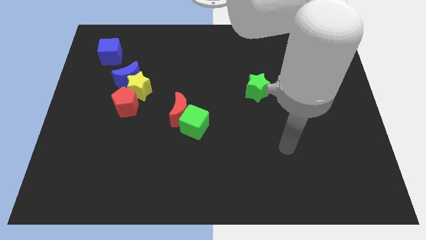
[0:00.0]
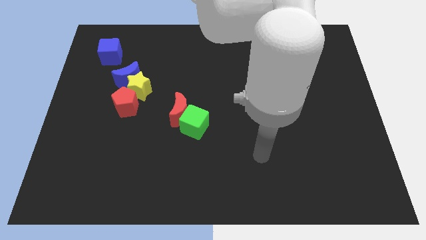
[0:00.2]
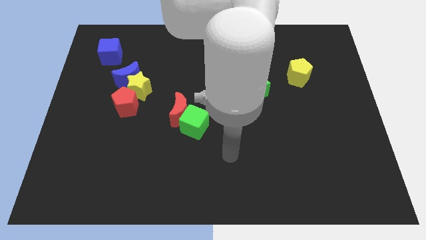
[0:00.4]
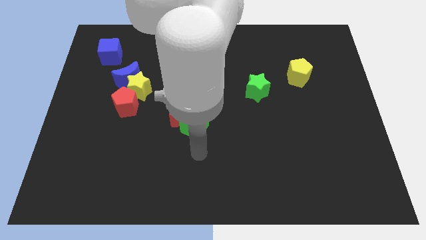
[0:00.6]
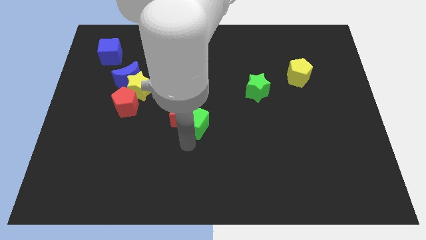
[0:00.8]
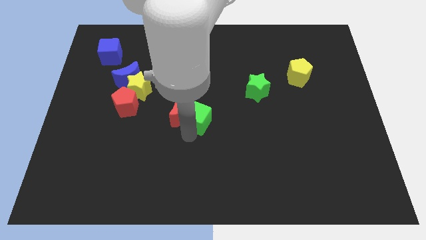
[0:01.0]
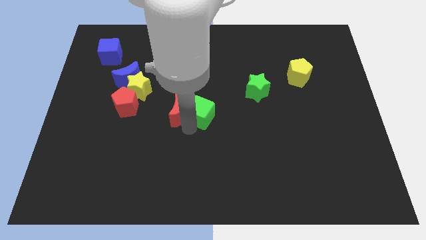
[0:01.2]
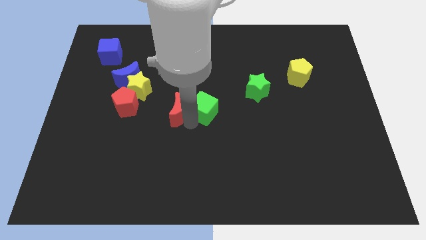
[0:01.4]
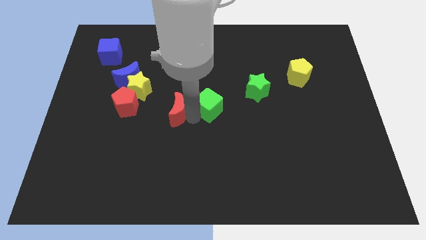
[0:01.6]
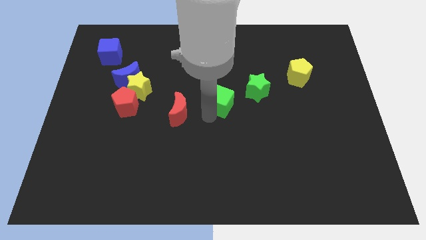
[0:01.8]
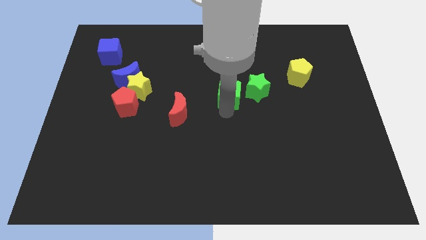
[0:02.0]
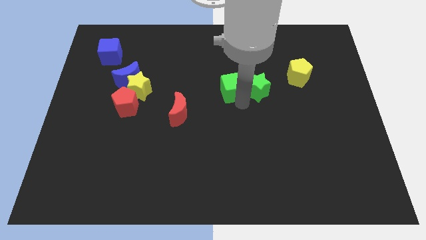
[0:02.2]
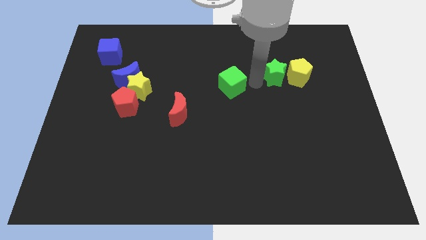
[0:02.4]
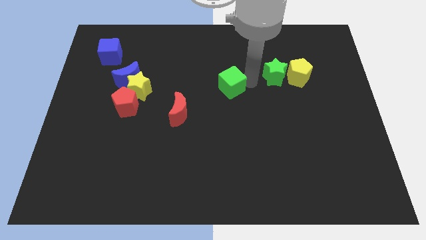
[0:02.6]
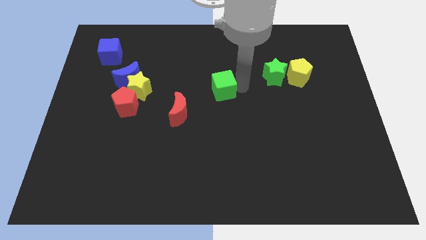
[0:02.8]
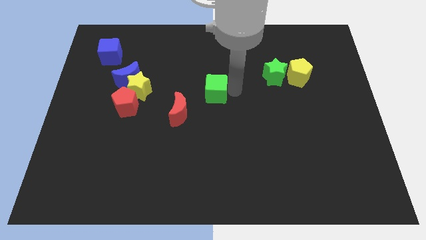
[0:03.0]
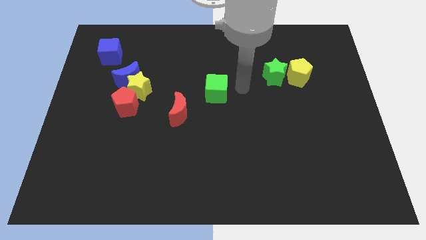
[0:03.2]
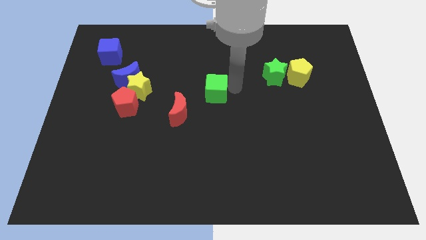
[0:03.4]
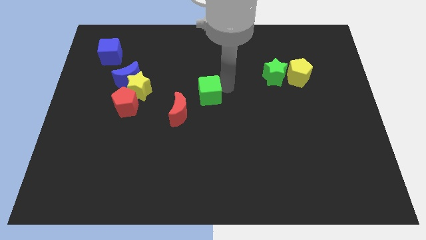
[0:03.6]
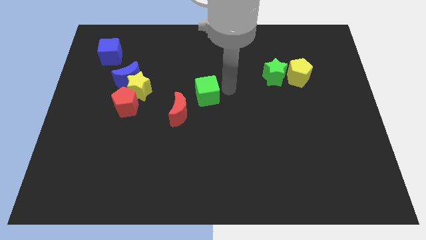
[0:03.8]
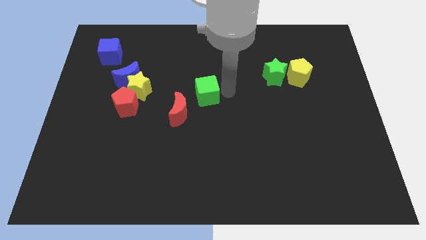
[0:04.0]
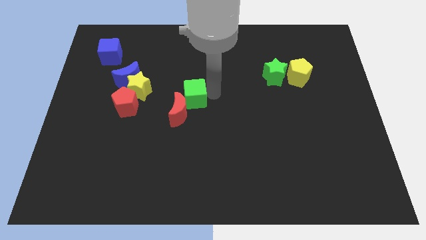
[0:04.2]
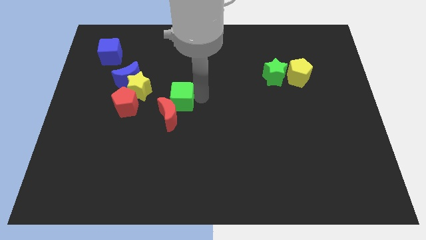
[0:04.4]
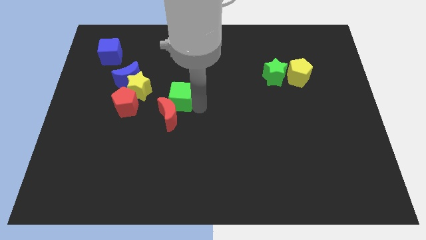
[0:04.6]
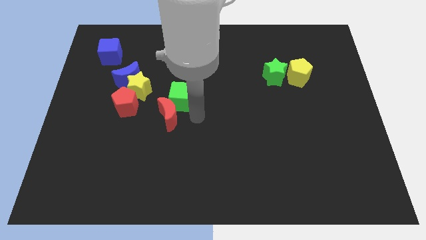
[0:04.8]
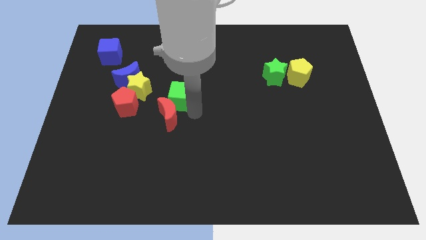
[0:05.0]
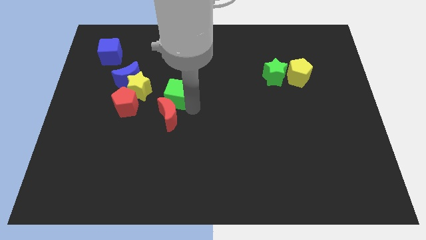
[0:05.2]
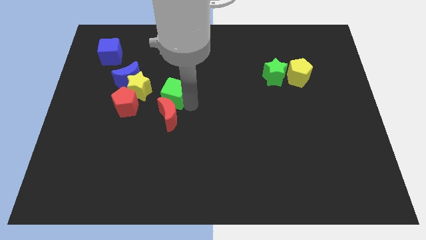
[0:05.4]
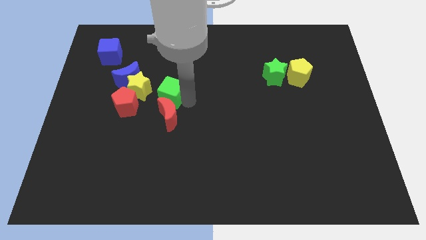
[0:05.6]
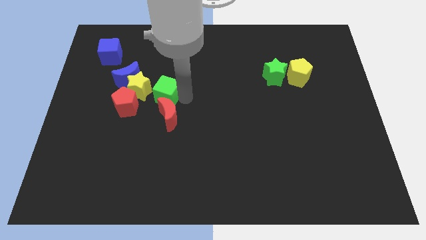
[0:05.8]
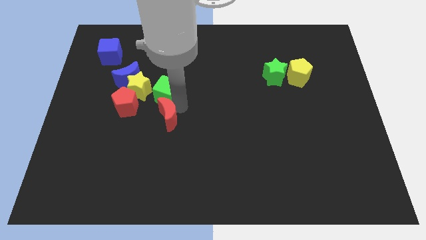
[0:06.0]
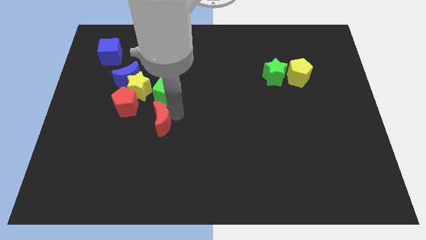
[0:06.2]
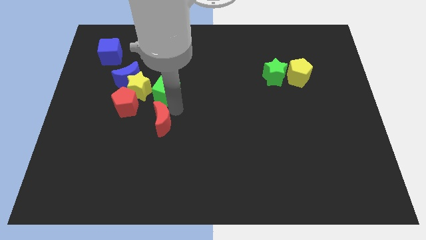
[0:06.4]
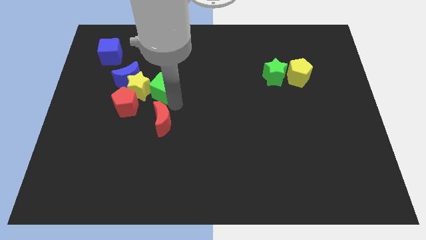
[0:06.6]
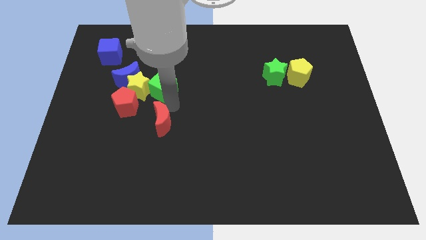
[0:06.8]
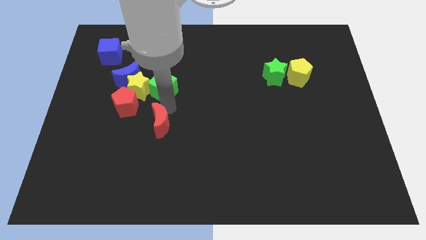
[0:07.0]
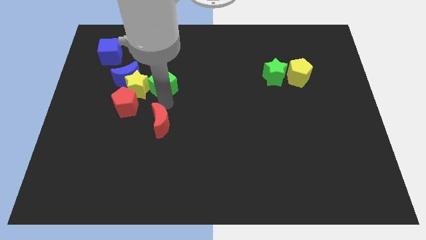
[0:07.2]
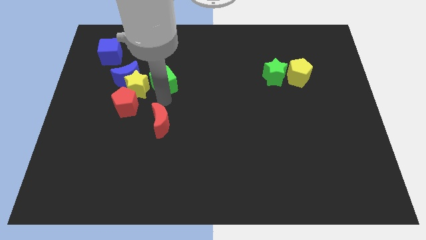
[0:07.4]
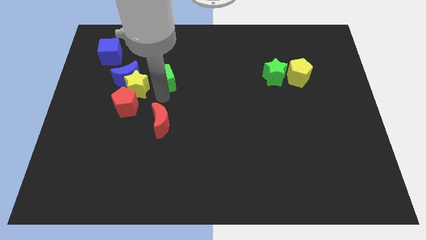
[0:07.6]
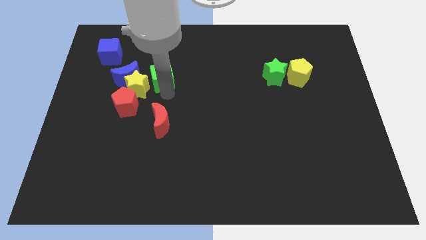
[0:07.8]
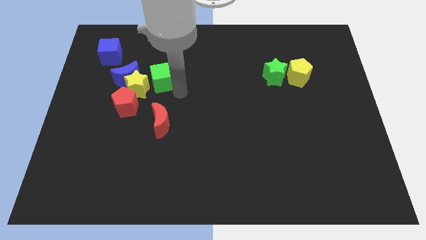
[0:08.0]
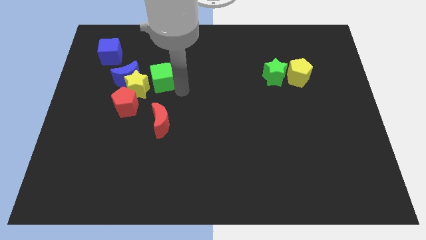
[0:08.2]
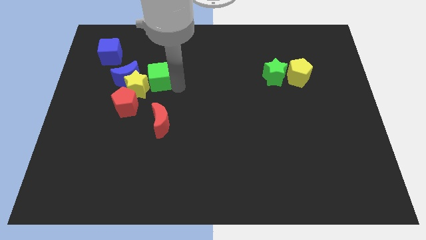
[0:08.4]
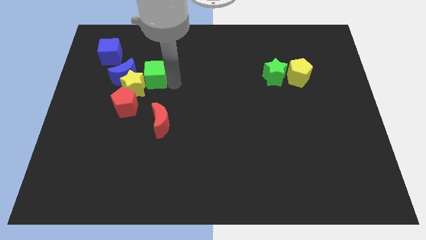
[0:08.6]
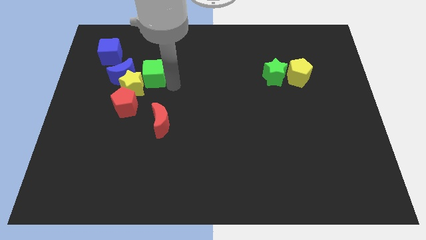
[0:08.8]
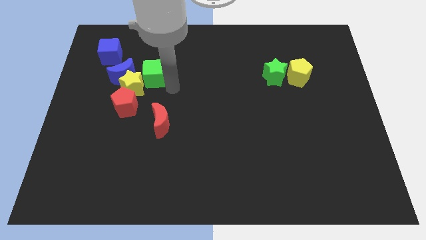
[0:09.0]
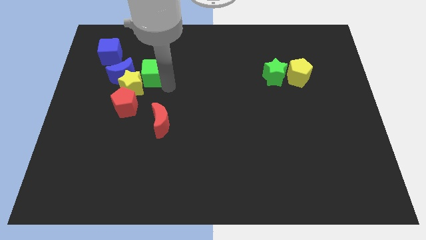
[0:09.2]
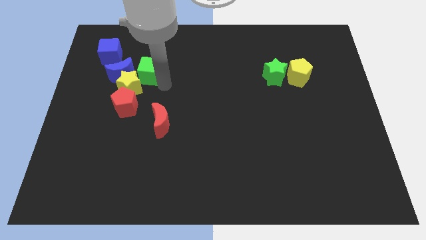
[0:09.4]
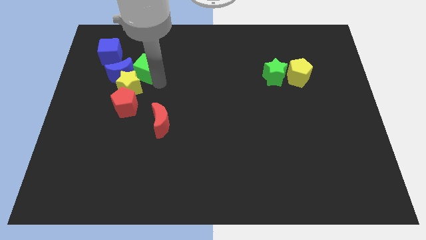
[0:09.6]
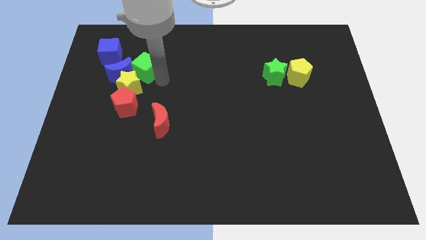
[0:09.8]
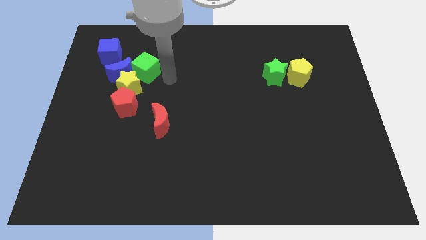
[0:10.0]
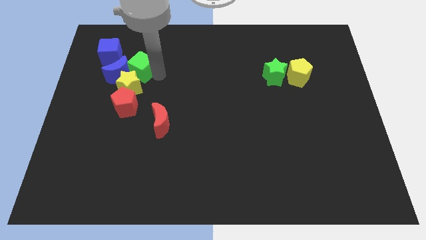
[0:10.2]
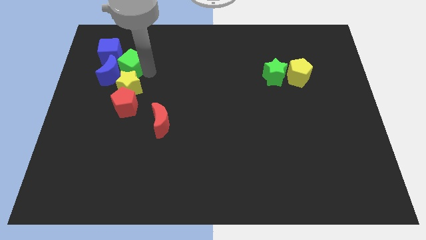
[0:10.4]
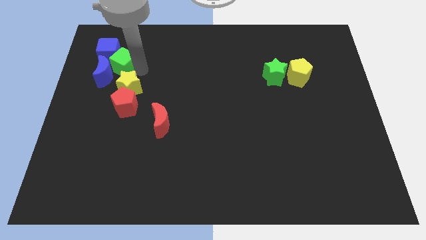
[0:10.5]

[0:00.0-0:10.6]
push the green cube close to the blue cube

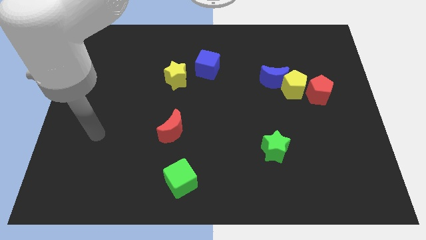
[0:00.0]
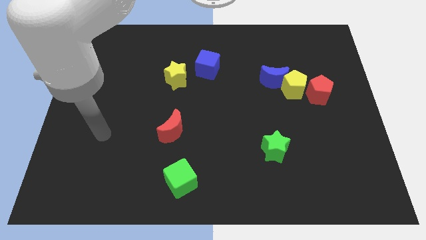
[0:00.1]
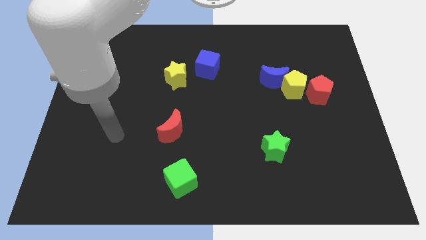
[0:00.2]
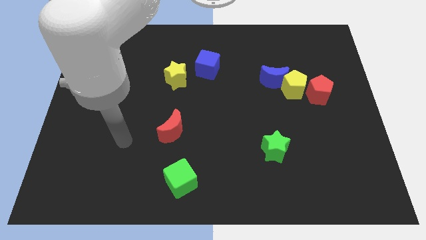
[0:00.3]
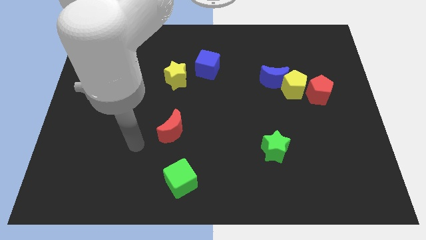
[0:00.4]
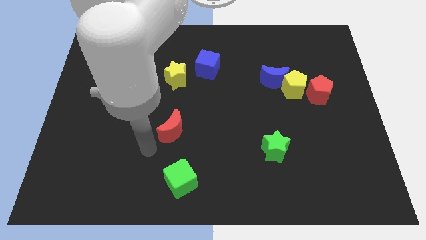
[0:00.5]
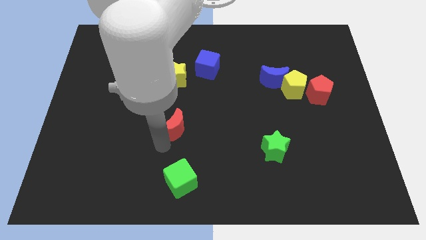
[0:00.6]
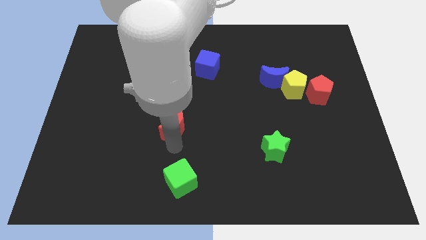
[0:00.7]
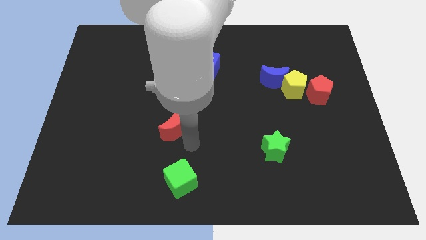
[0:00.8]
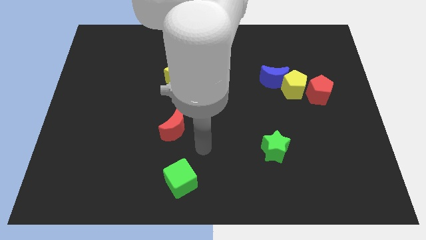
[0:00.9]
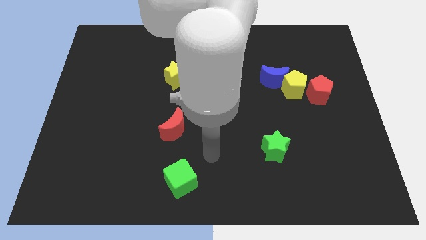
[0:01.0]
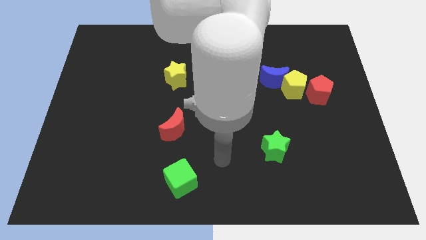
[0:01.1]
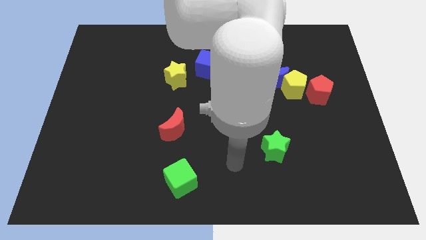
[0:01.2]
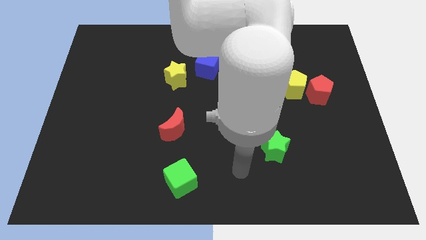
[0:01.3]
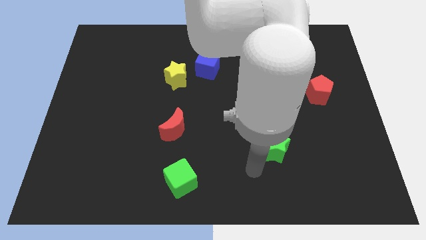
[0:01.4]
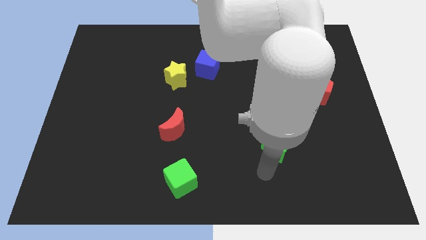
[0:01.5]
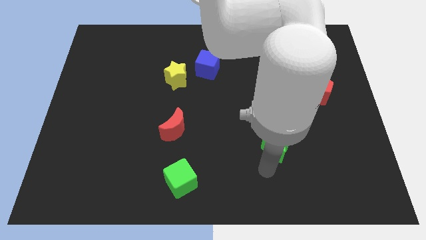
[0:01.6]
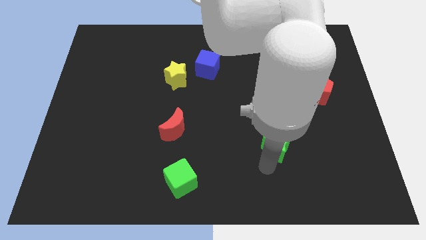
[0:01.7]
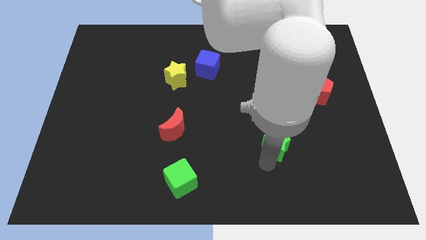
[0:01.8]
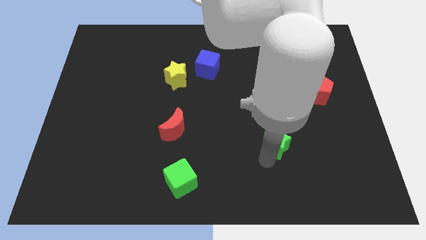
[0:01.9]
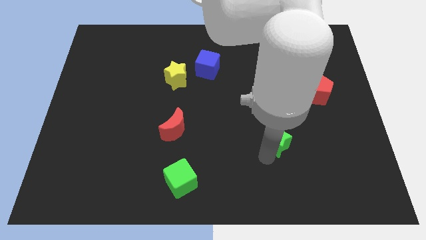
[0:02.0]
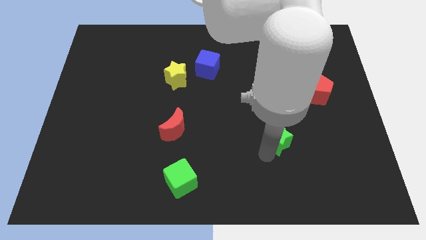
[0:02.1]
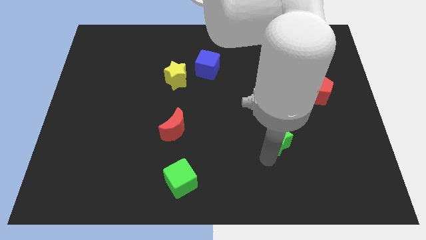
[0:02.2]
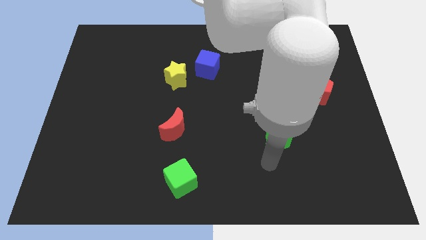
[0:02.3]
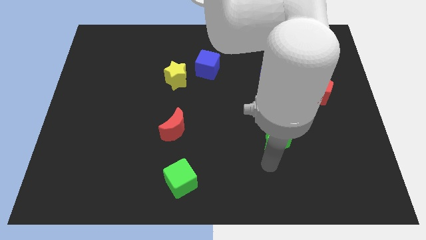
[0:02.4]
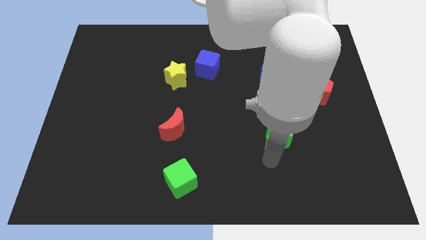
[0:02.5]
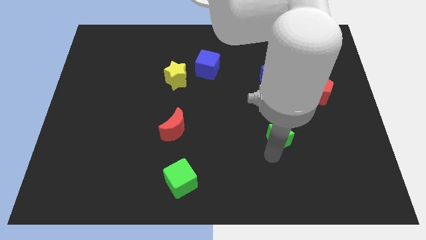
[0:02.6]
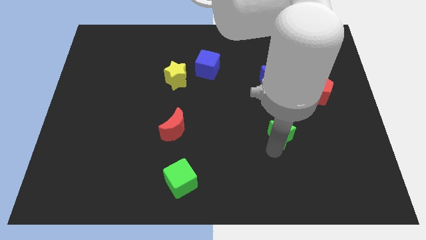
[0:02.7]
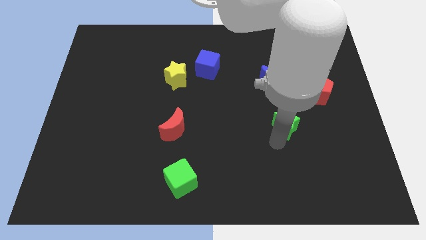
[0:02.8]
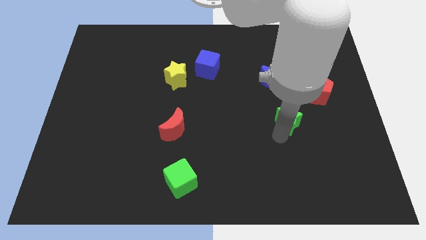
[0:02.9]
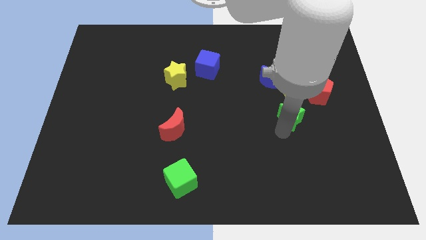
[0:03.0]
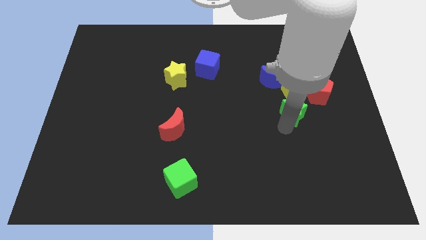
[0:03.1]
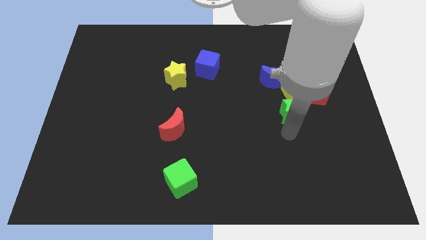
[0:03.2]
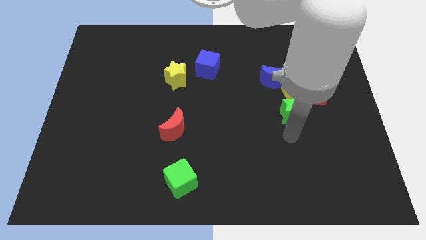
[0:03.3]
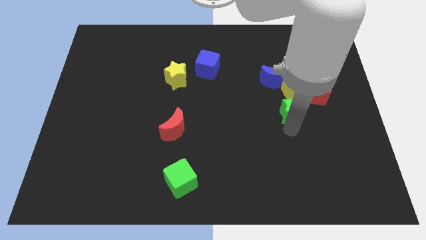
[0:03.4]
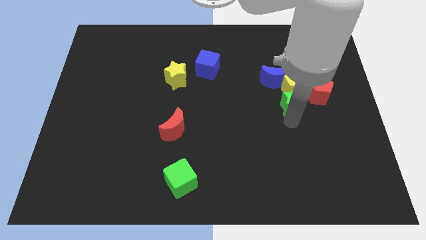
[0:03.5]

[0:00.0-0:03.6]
put the green star next to the yellow pentagon
